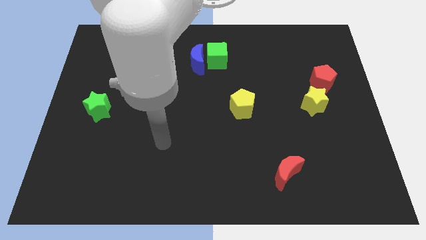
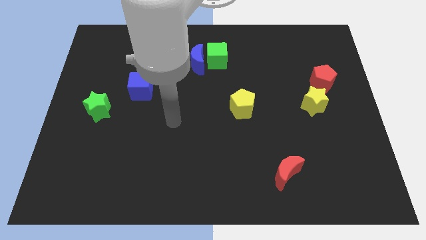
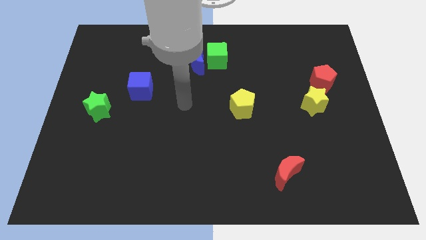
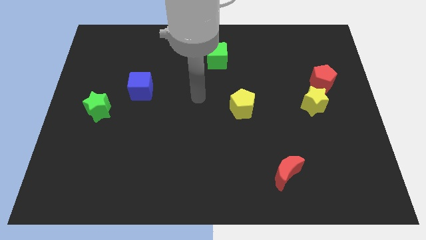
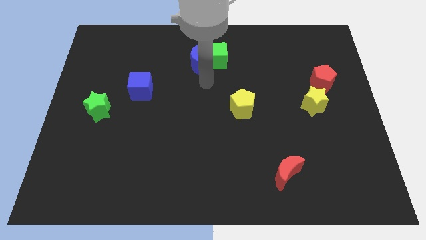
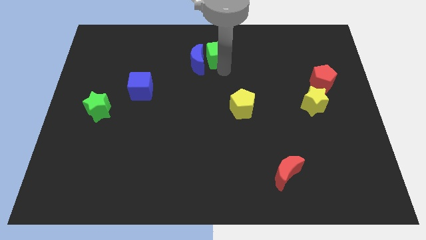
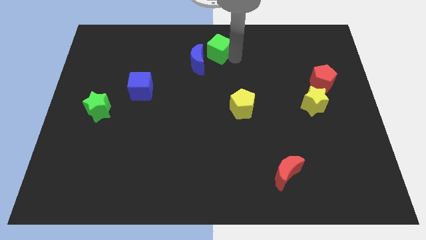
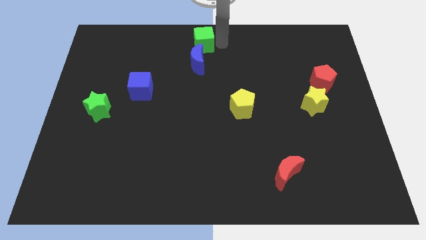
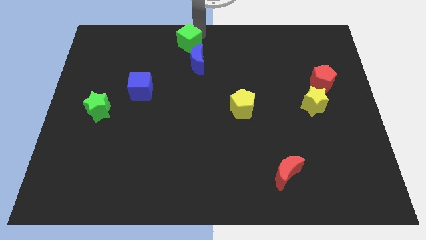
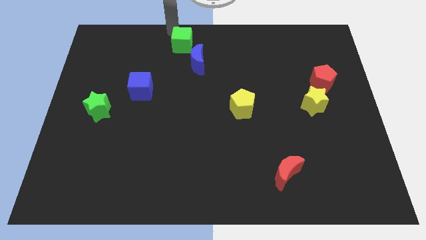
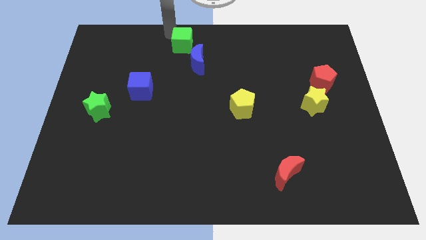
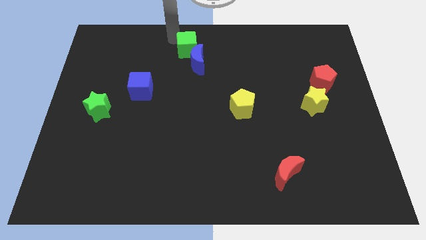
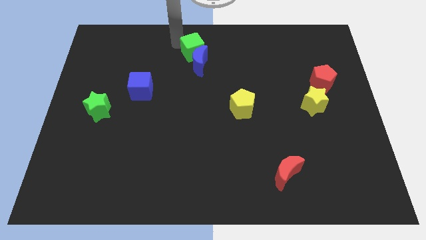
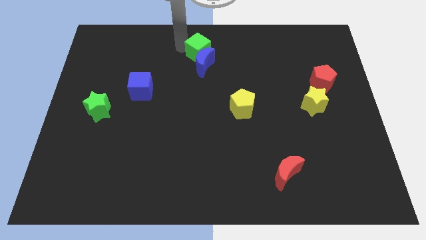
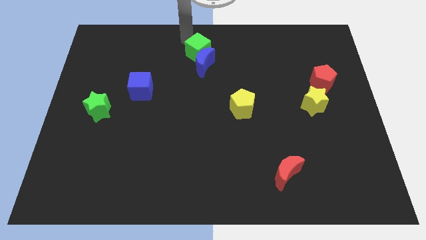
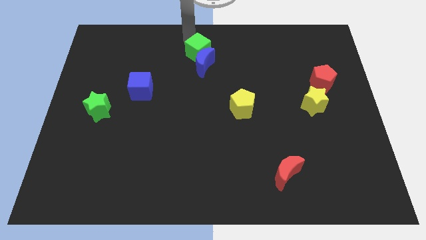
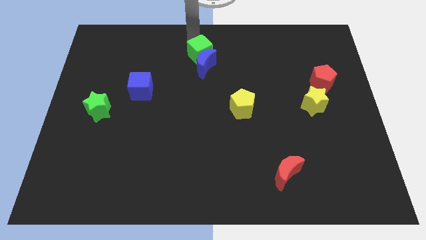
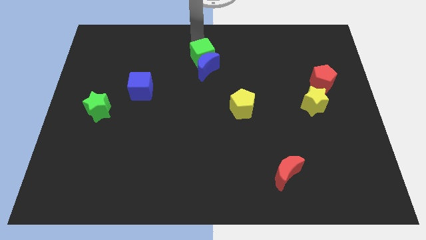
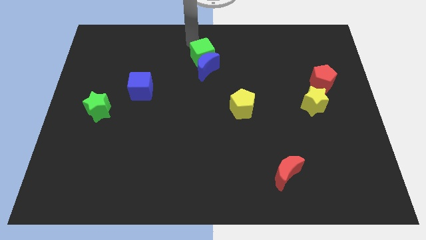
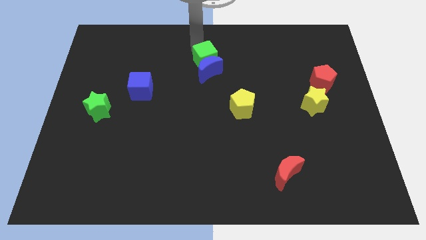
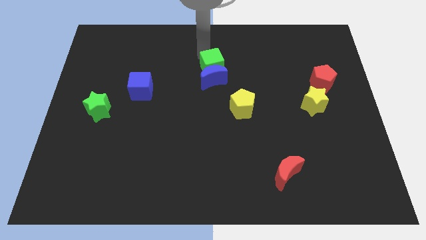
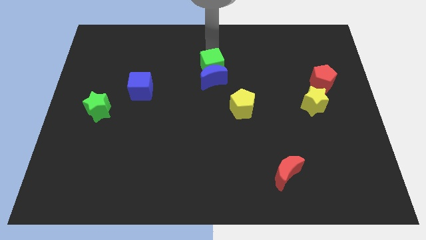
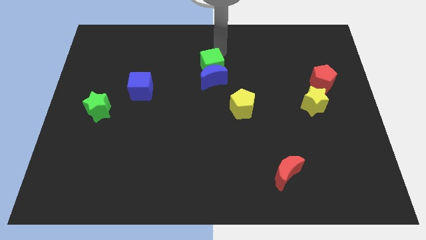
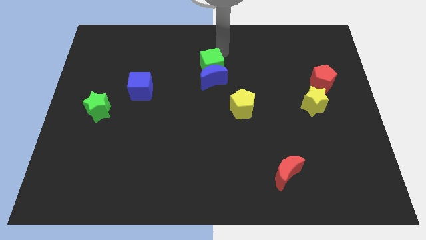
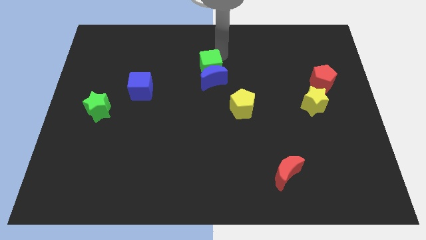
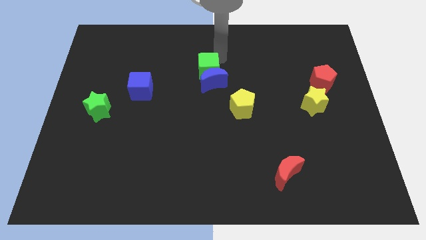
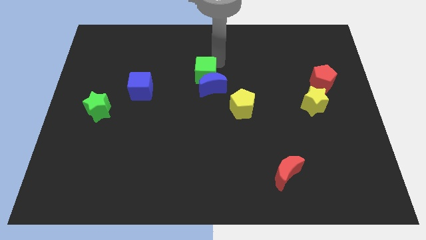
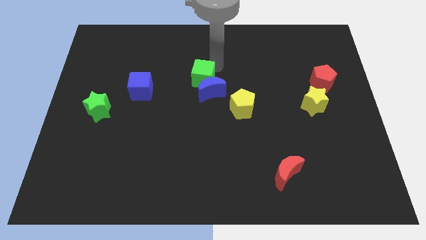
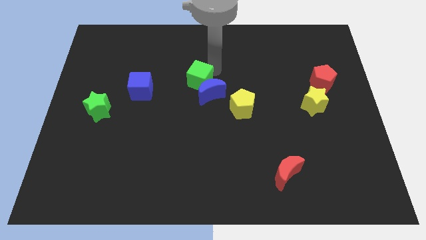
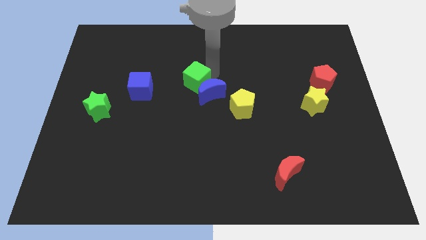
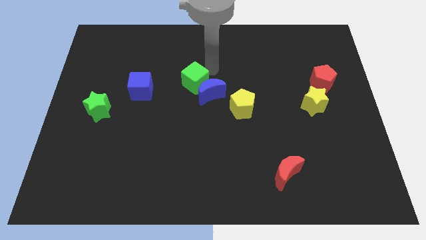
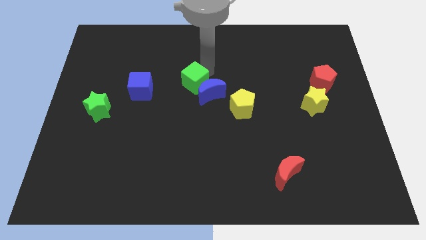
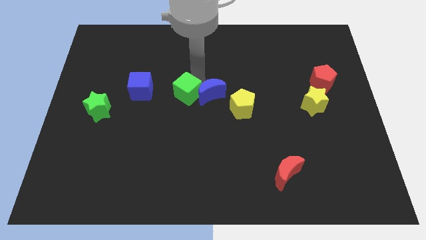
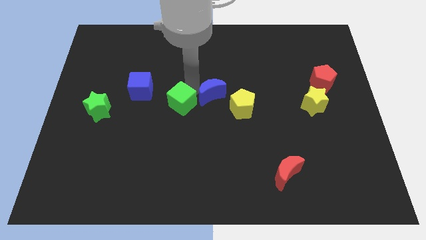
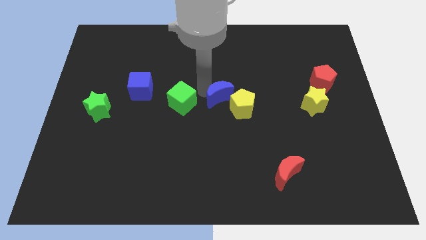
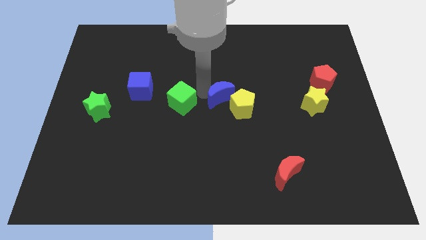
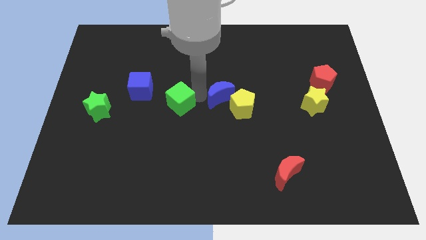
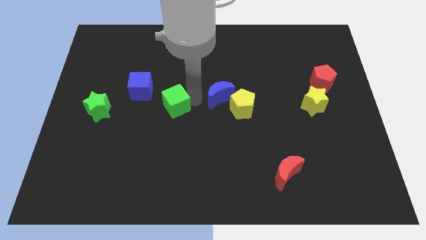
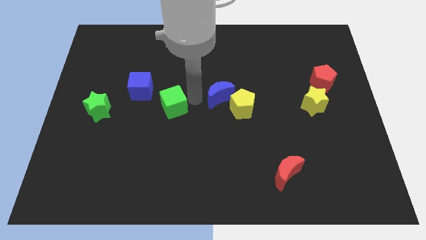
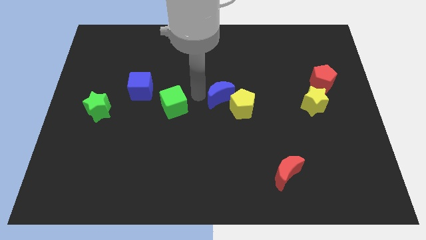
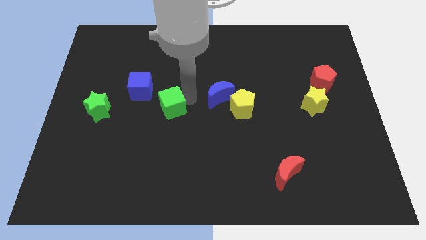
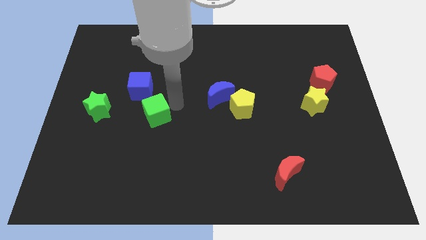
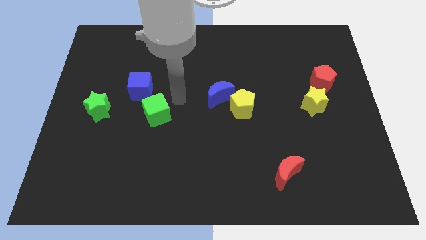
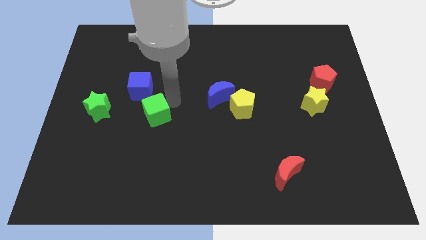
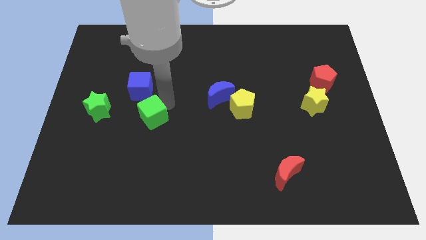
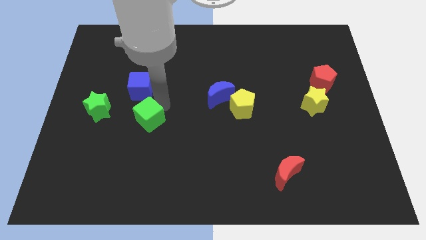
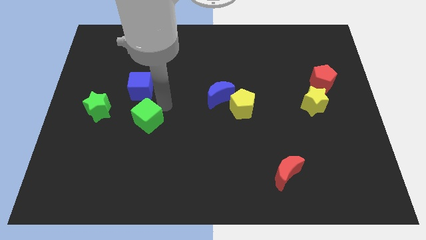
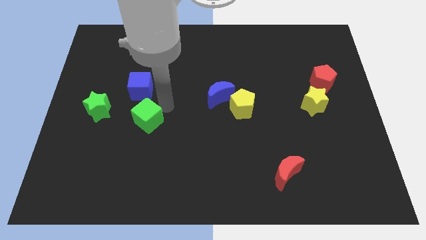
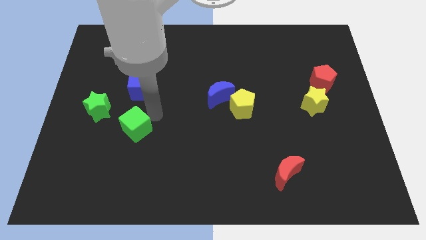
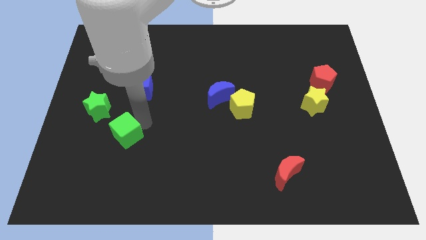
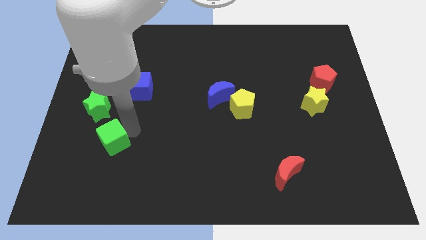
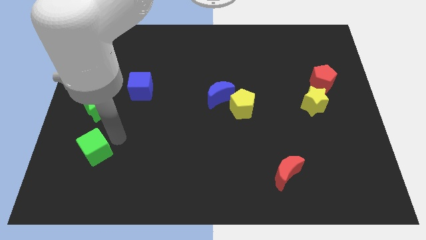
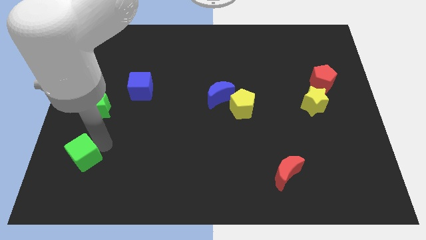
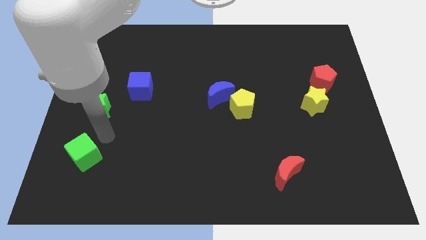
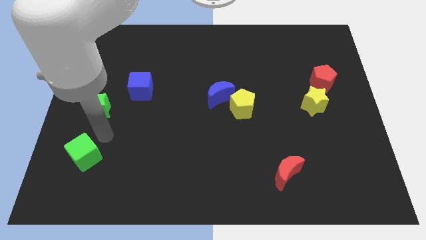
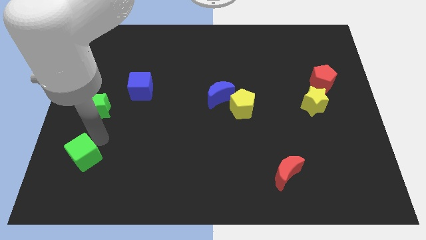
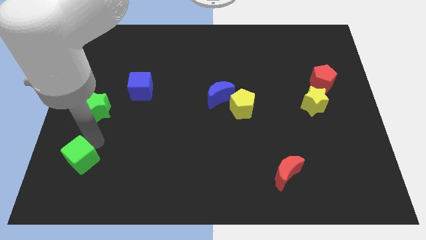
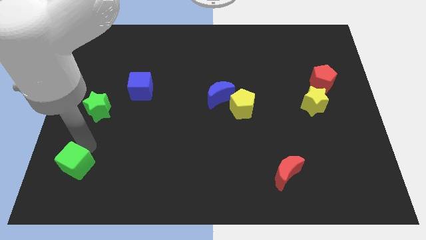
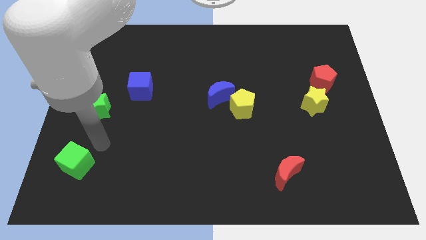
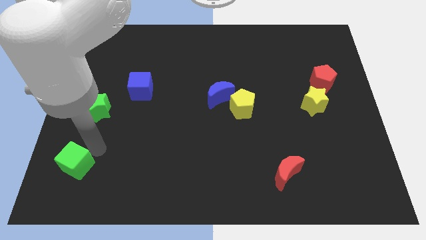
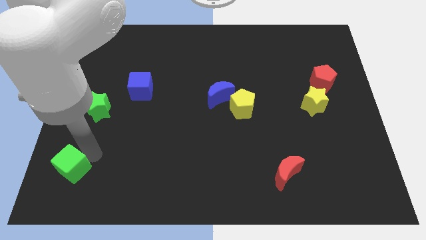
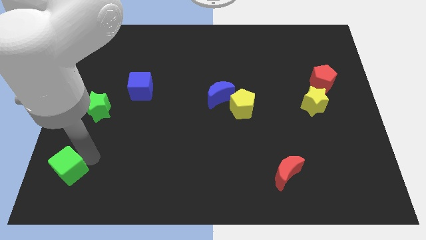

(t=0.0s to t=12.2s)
put the green cube to the lower left corner
